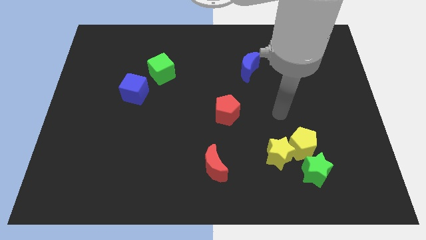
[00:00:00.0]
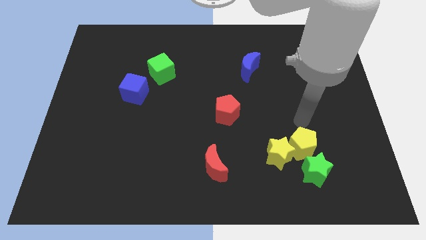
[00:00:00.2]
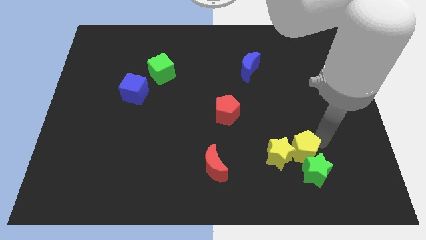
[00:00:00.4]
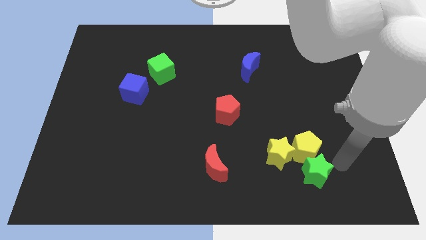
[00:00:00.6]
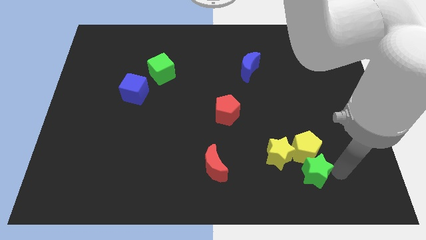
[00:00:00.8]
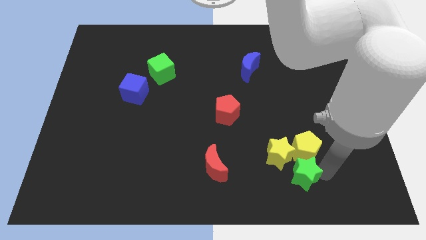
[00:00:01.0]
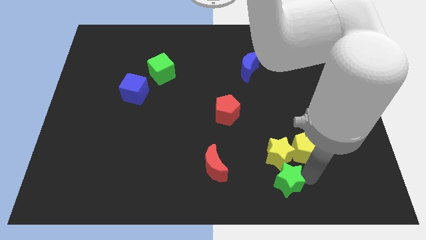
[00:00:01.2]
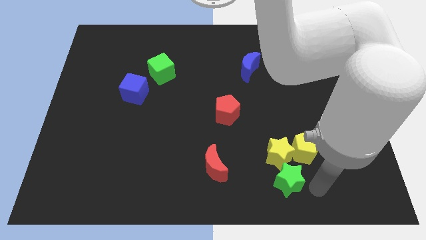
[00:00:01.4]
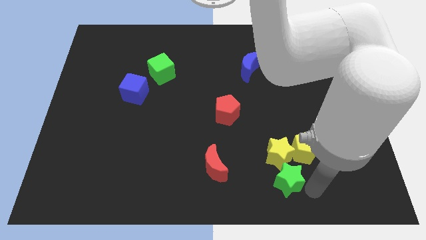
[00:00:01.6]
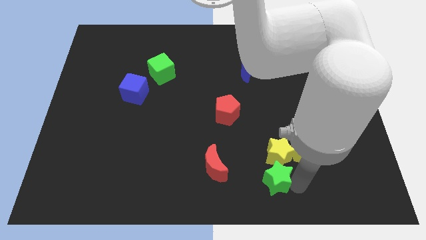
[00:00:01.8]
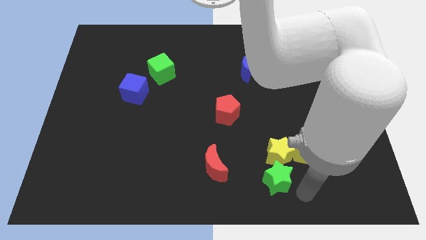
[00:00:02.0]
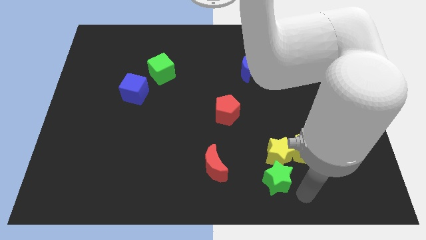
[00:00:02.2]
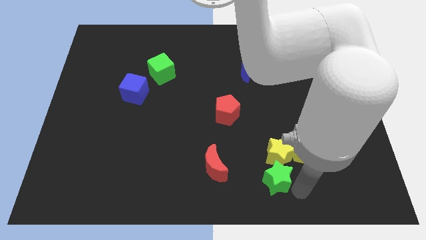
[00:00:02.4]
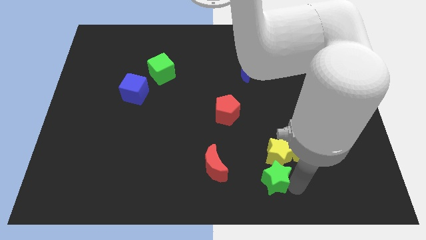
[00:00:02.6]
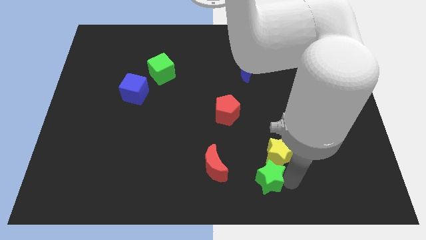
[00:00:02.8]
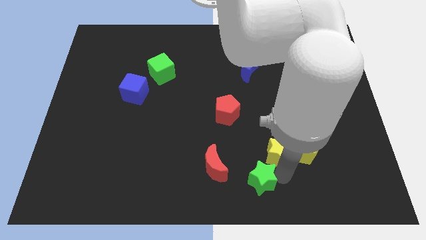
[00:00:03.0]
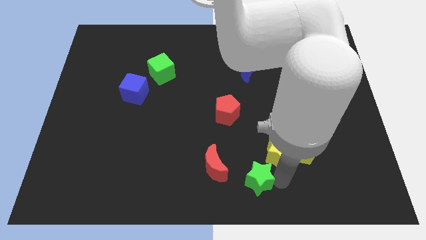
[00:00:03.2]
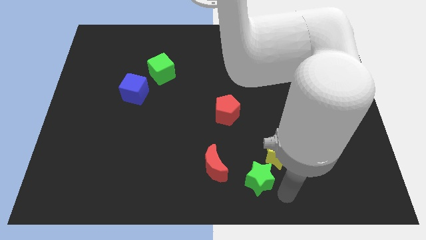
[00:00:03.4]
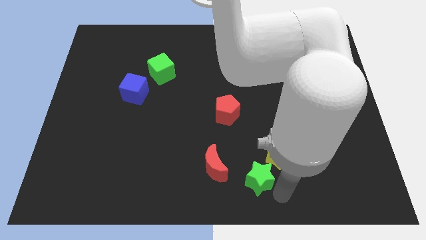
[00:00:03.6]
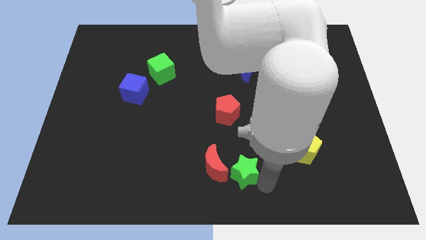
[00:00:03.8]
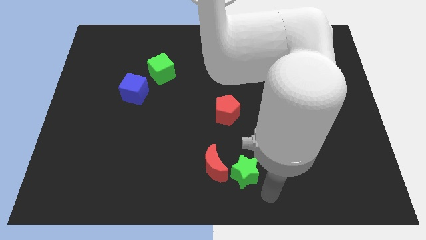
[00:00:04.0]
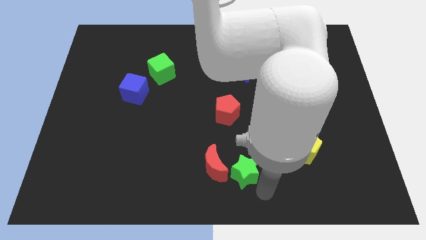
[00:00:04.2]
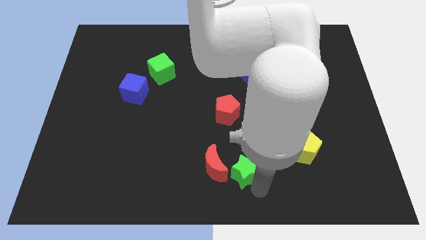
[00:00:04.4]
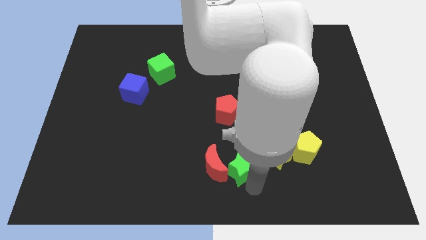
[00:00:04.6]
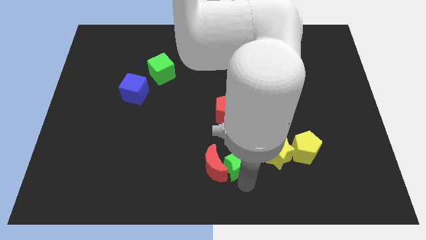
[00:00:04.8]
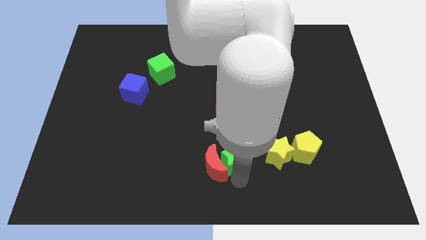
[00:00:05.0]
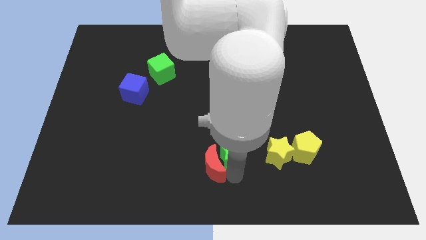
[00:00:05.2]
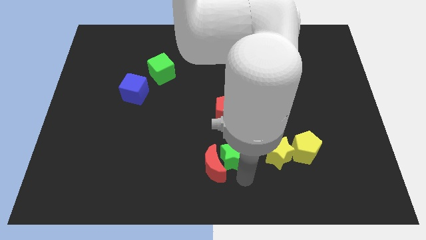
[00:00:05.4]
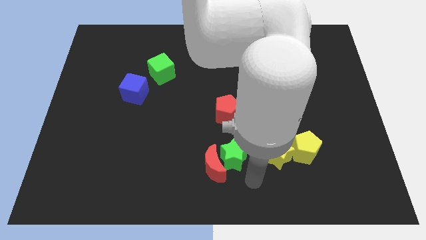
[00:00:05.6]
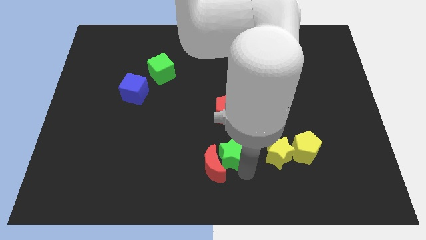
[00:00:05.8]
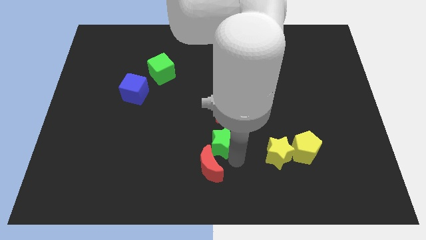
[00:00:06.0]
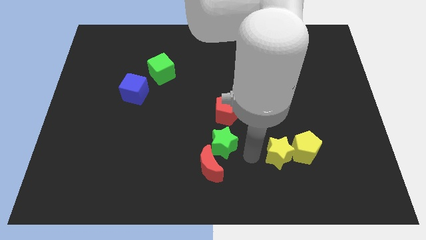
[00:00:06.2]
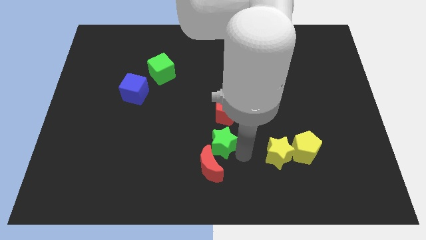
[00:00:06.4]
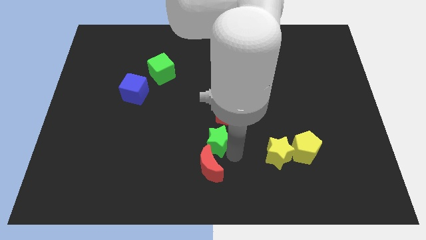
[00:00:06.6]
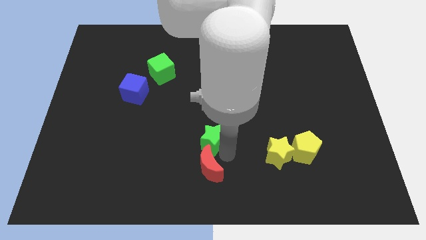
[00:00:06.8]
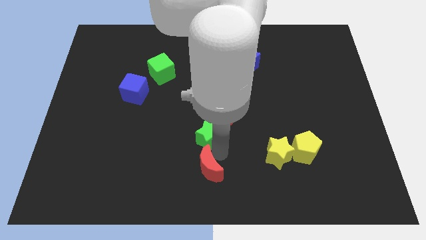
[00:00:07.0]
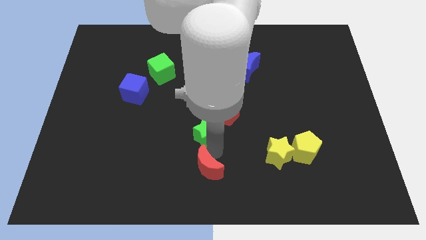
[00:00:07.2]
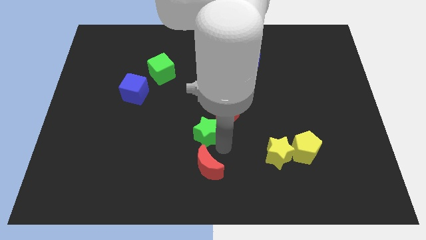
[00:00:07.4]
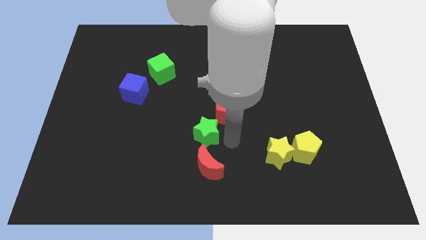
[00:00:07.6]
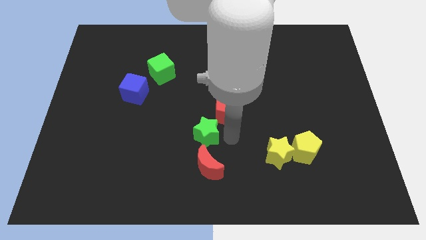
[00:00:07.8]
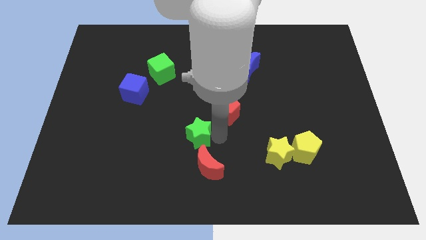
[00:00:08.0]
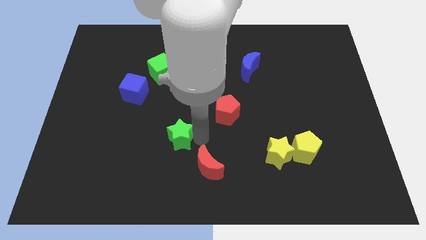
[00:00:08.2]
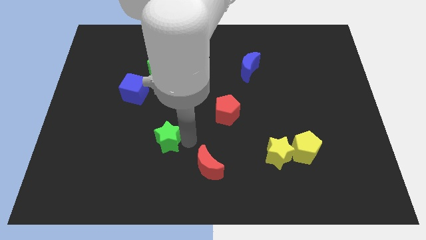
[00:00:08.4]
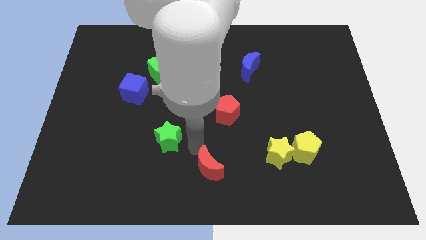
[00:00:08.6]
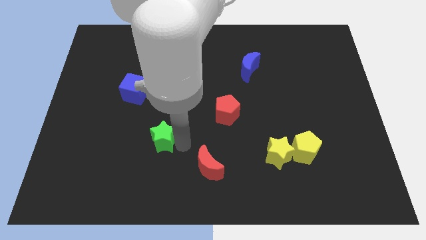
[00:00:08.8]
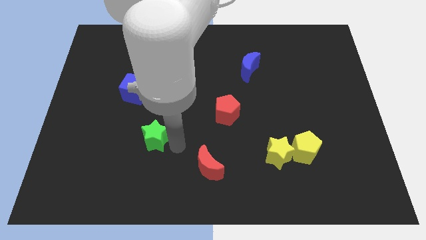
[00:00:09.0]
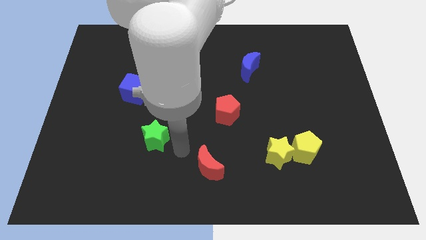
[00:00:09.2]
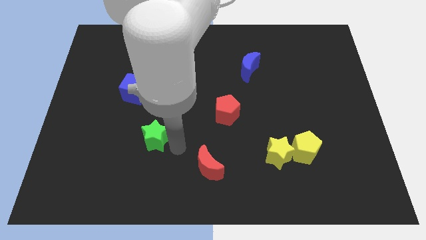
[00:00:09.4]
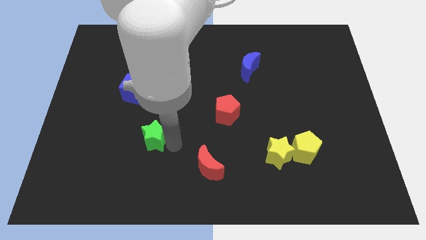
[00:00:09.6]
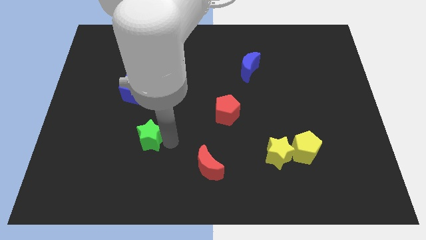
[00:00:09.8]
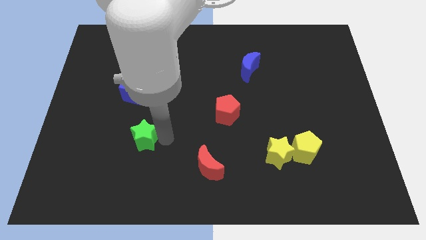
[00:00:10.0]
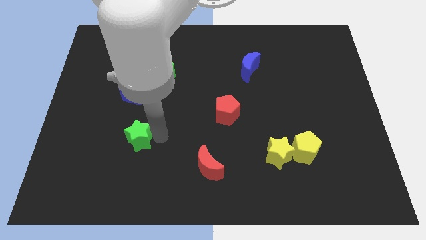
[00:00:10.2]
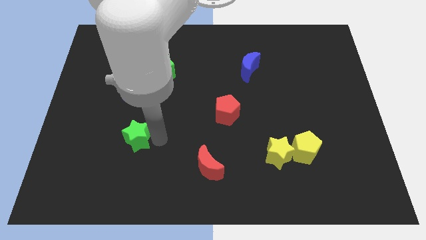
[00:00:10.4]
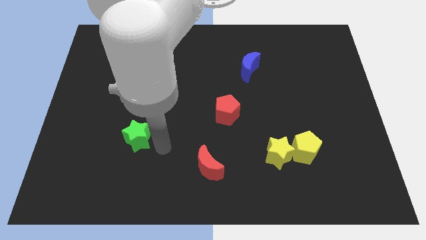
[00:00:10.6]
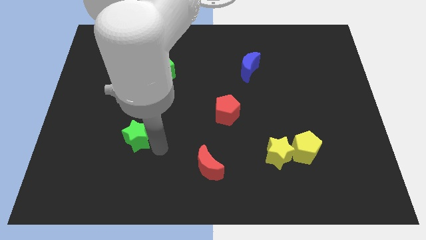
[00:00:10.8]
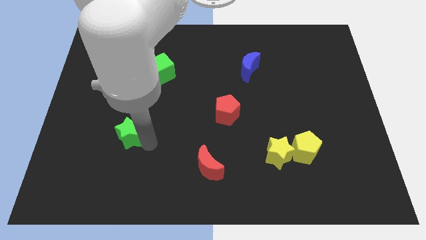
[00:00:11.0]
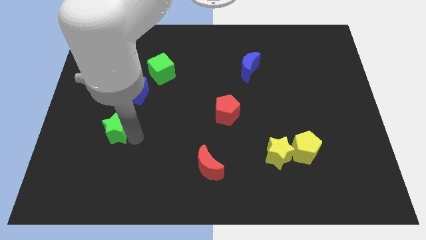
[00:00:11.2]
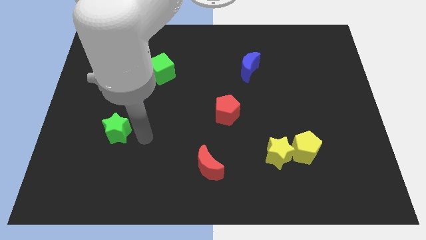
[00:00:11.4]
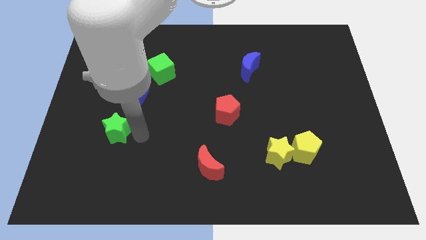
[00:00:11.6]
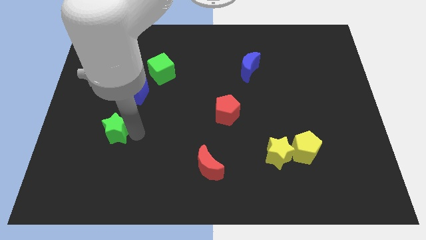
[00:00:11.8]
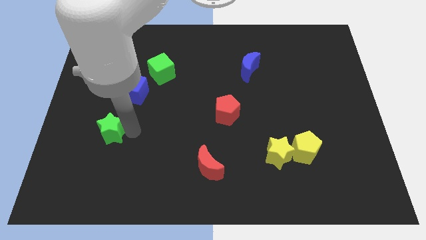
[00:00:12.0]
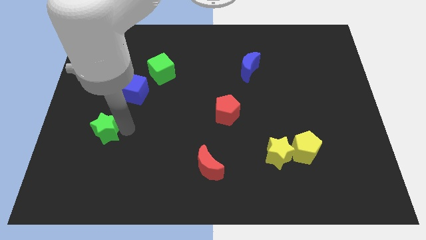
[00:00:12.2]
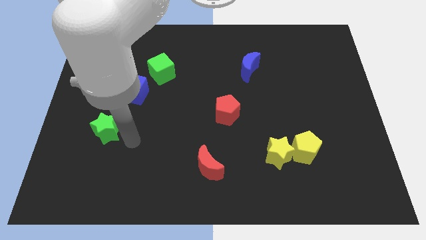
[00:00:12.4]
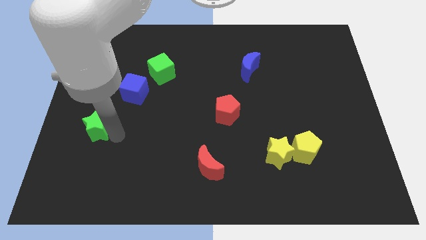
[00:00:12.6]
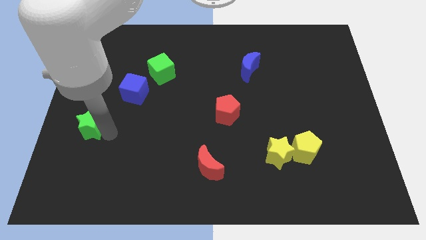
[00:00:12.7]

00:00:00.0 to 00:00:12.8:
put the green star to the center left
